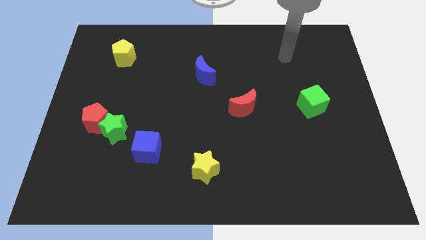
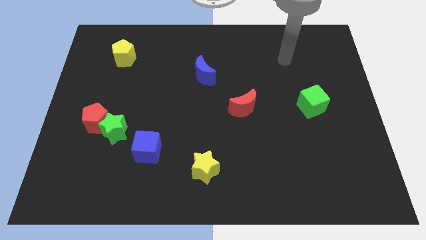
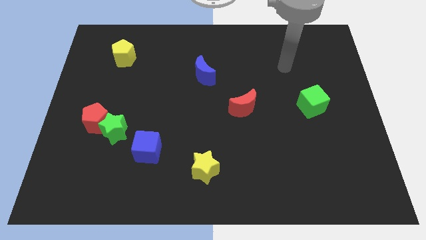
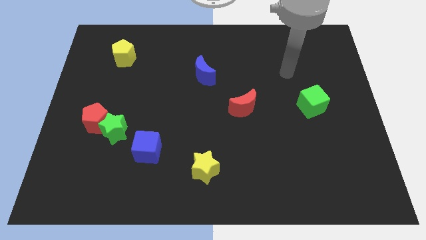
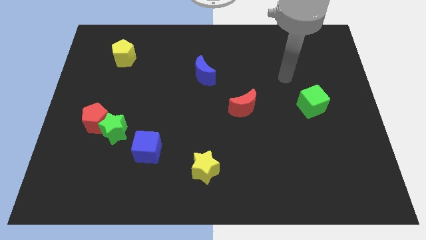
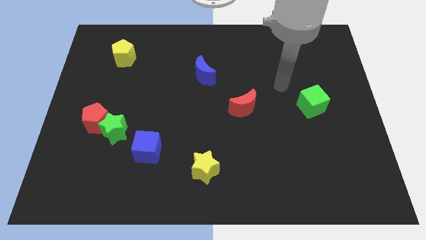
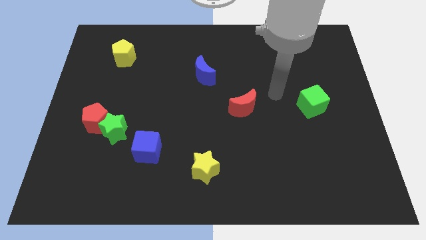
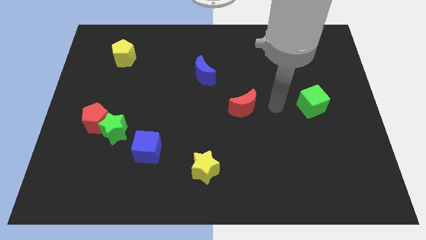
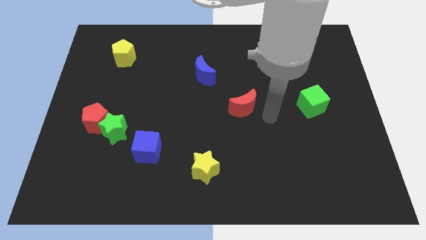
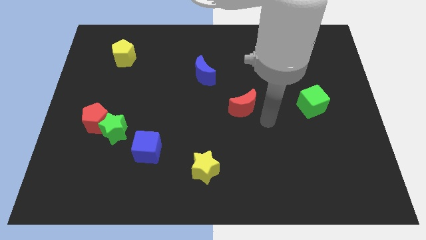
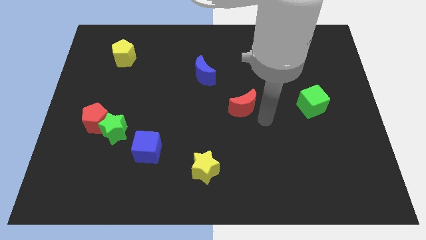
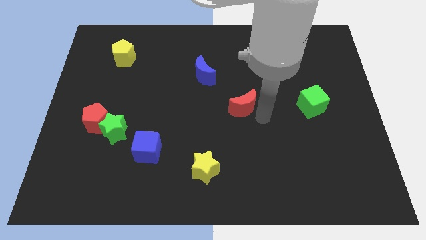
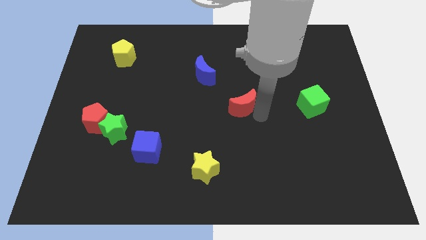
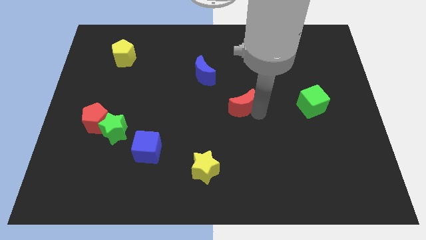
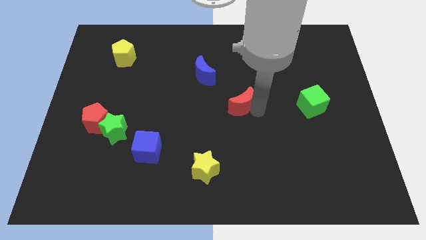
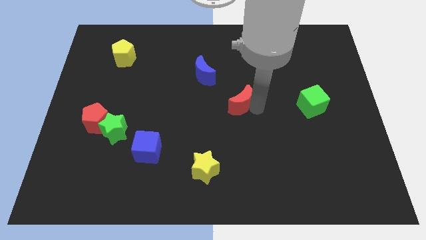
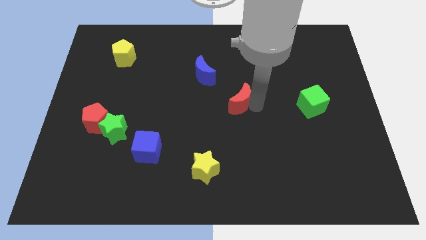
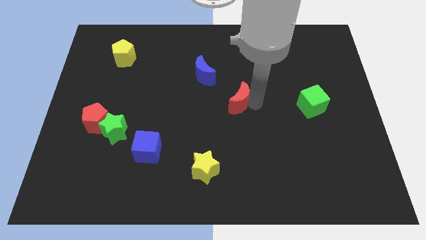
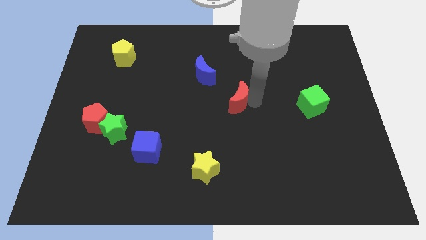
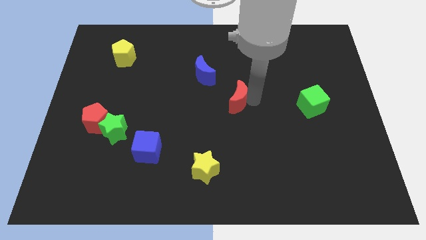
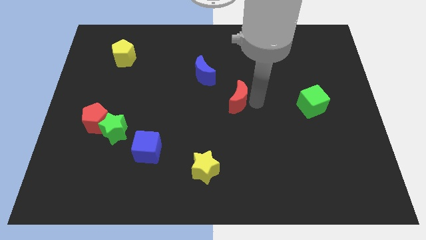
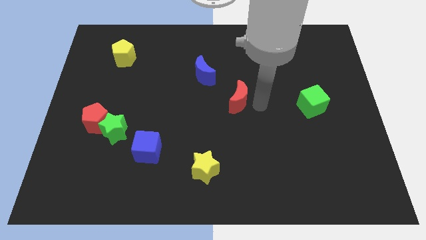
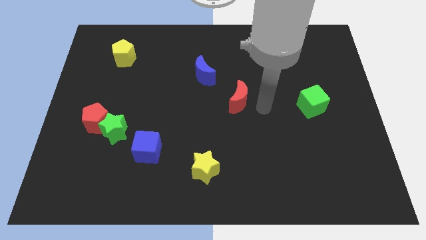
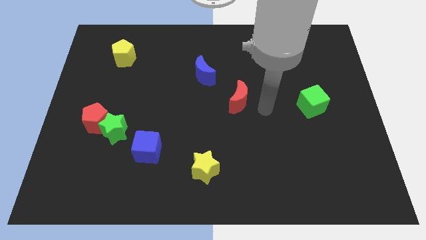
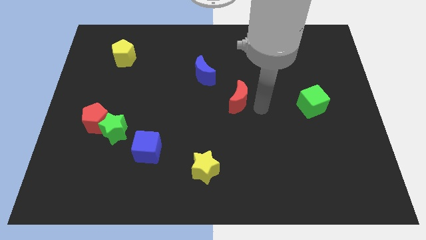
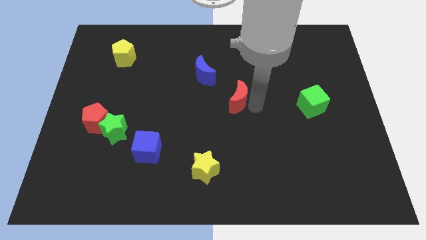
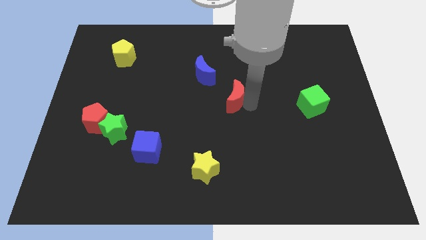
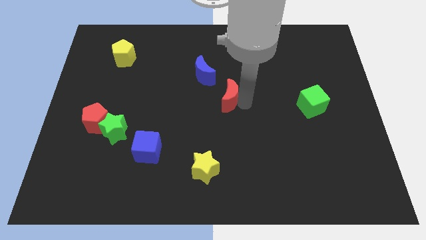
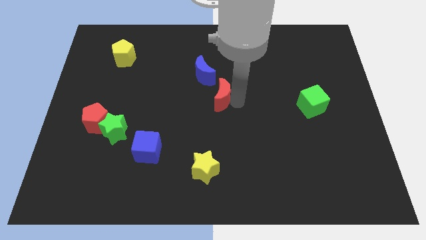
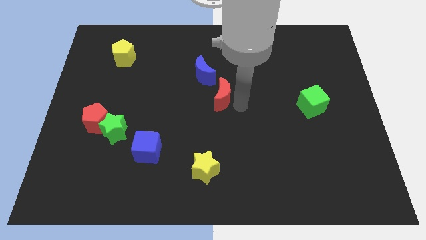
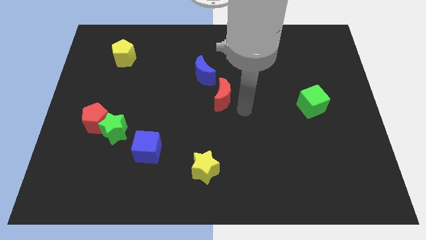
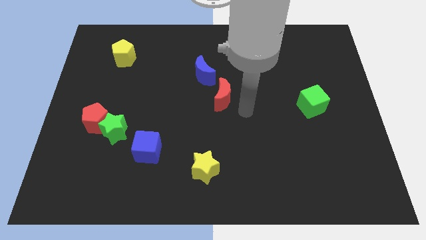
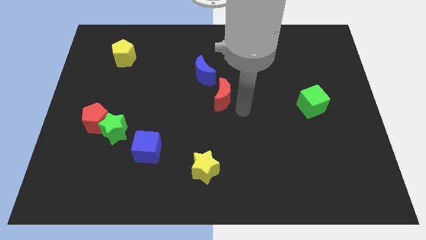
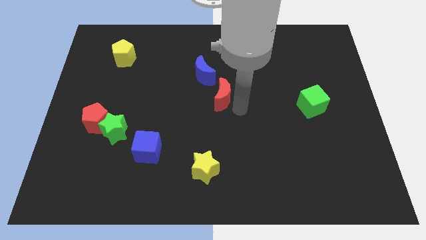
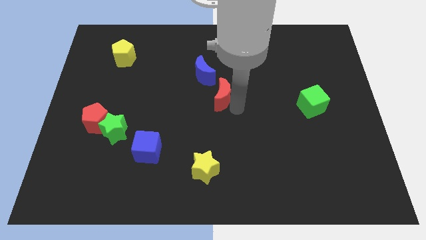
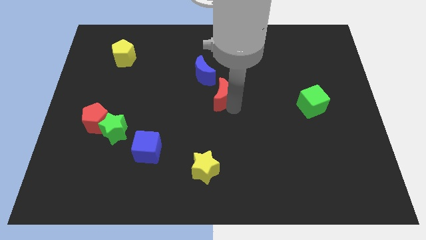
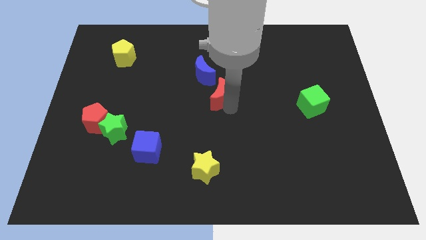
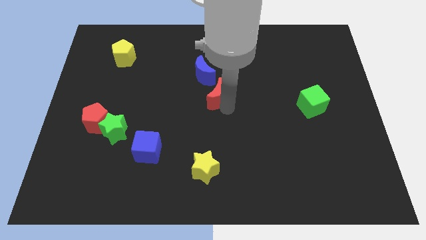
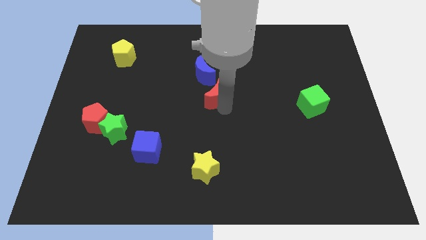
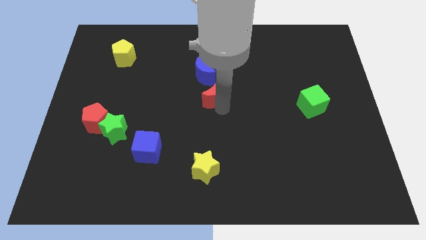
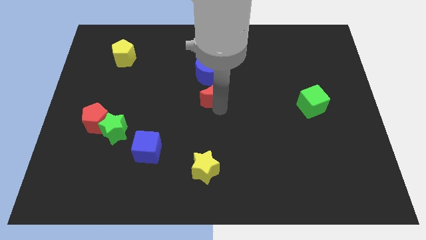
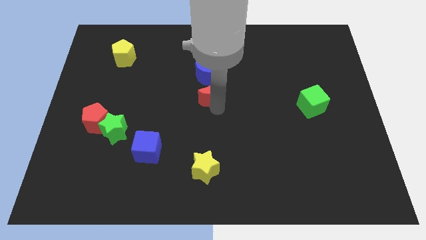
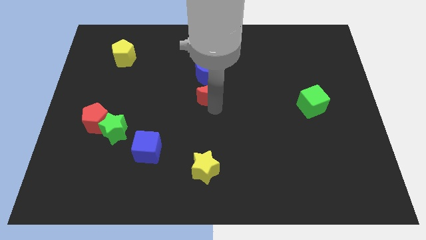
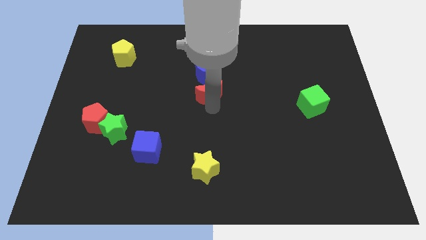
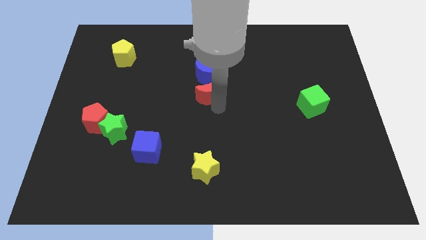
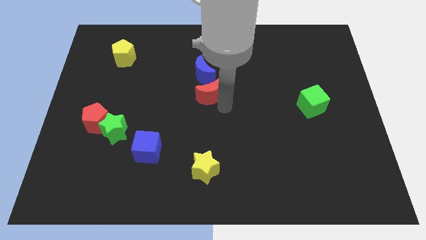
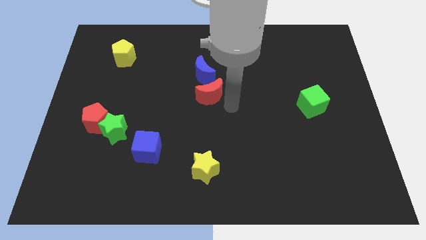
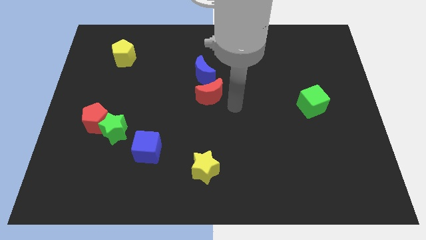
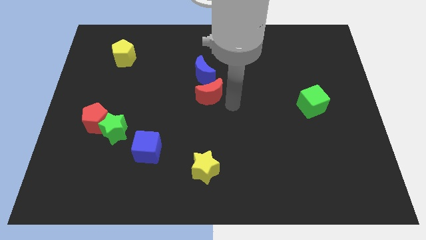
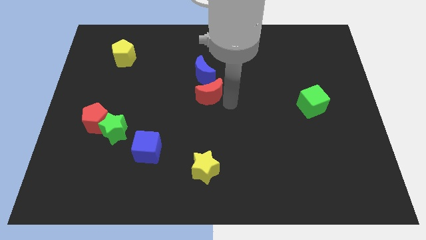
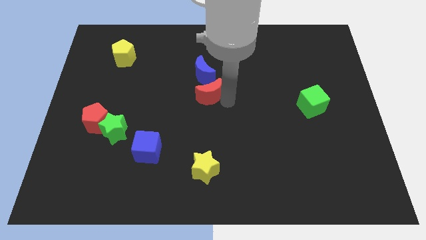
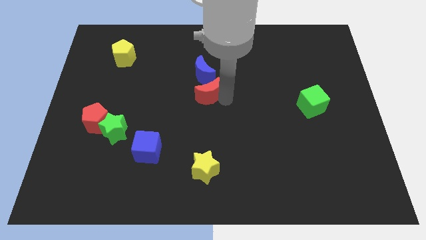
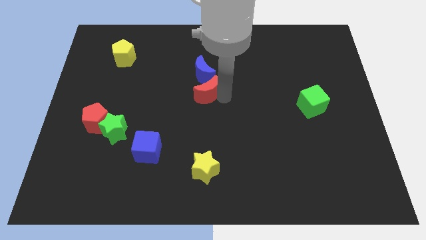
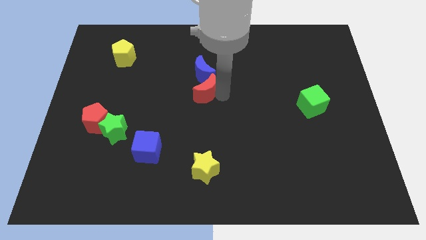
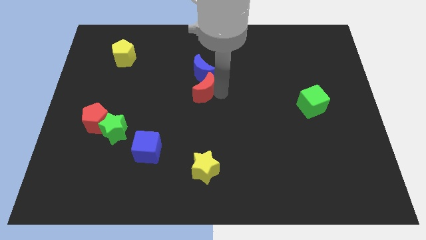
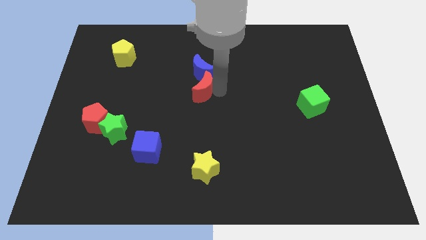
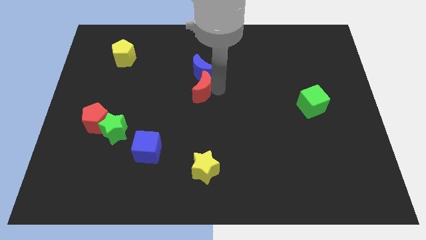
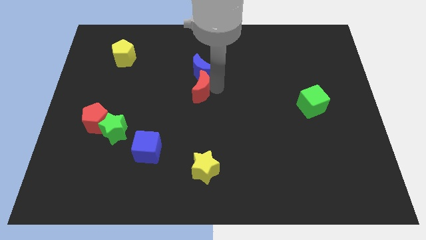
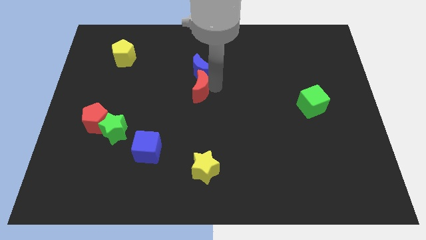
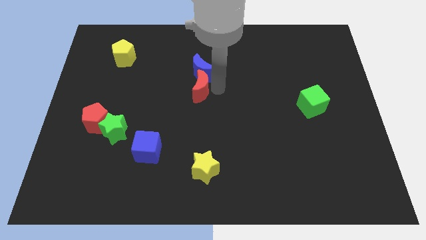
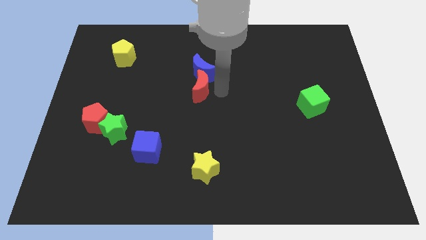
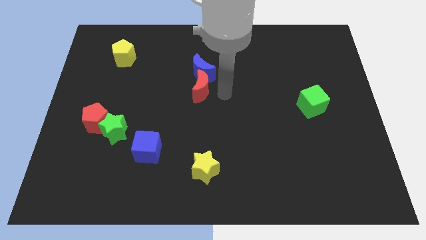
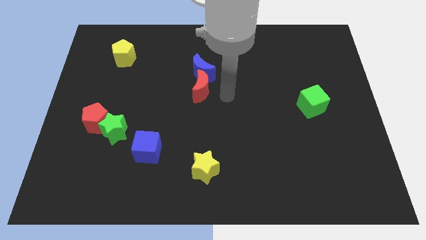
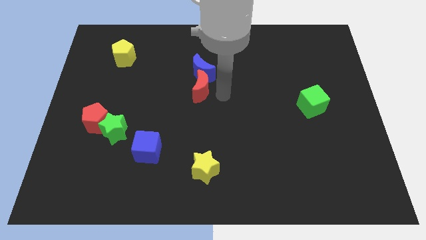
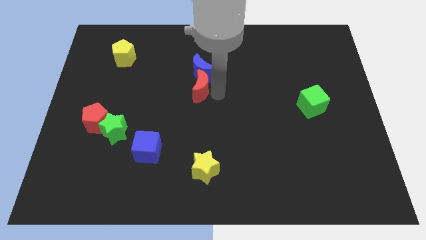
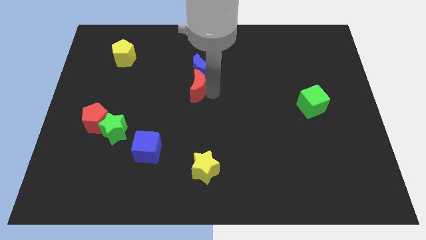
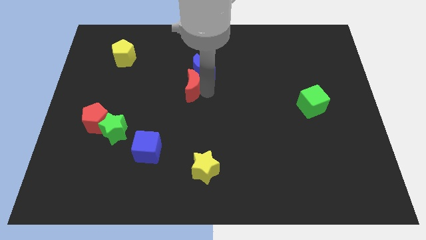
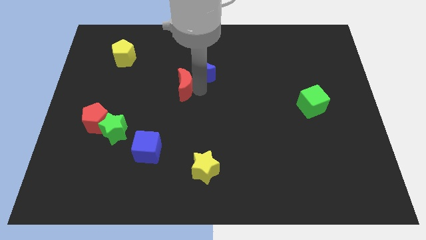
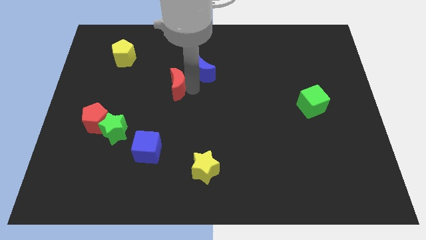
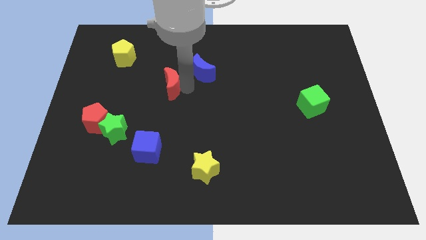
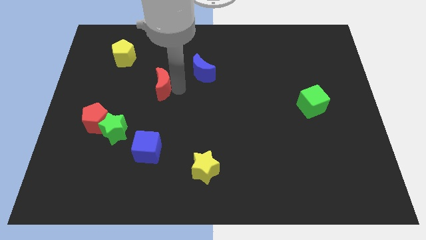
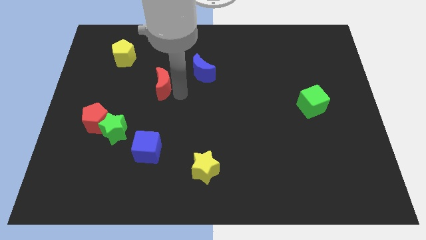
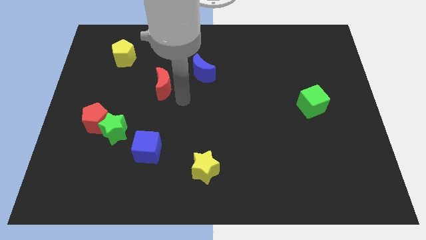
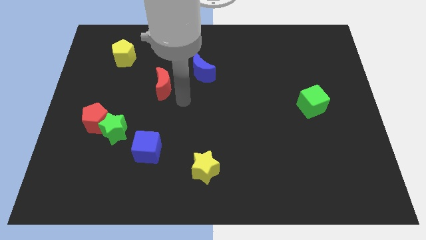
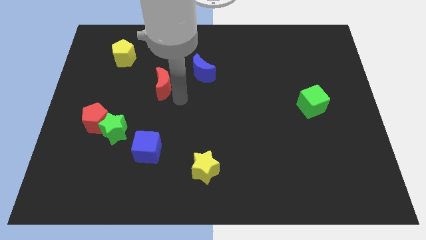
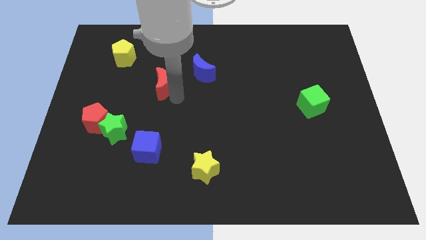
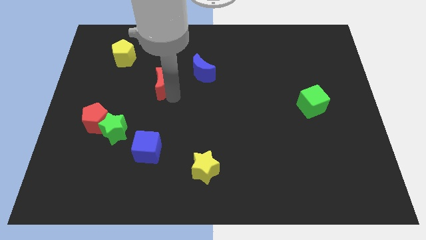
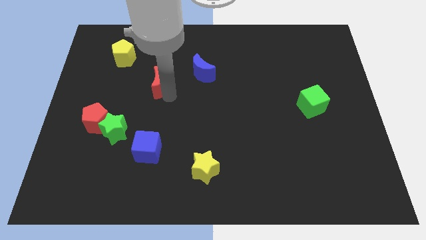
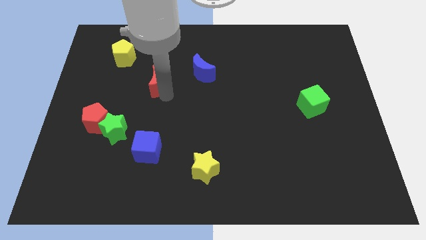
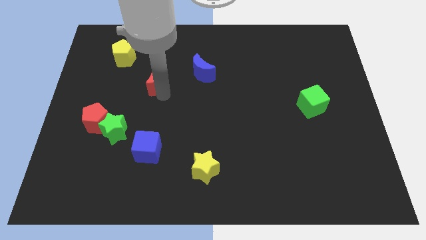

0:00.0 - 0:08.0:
put the red moon to the bottom right side of the yellow pentagon
